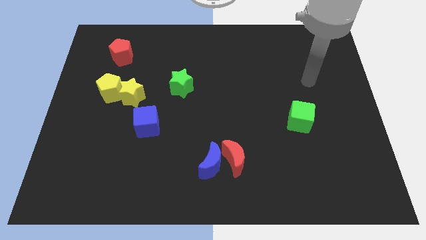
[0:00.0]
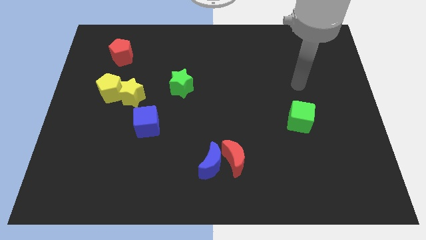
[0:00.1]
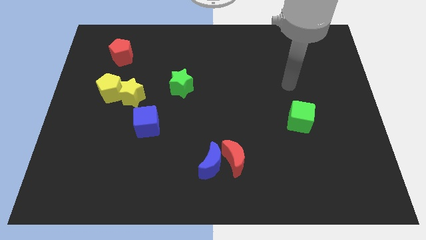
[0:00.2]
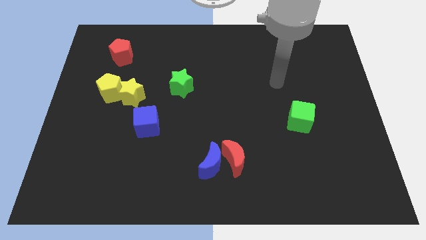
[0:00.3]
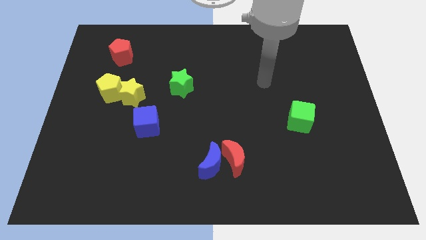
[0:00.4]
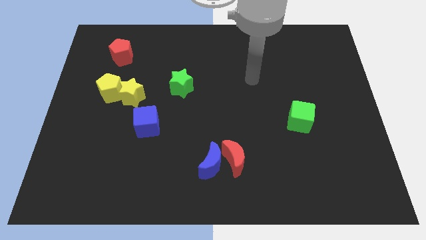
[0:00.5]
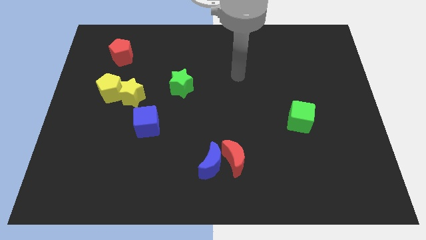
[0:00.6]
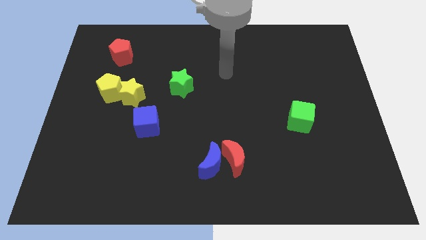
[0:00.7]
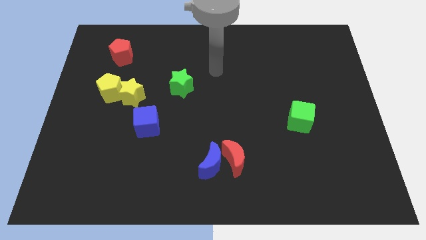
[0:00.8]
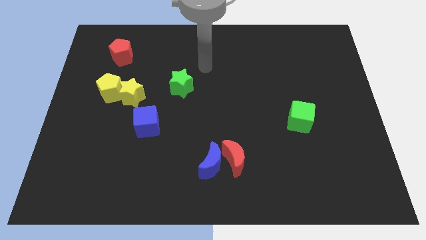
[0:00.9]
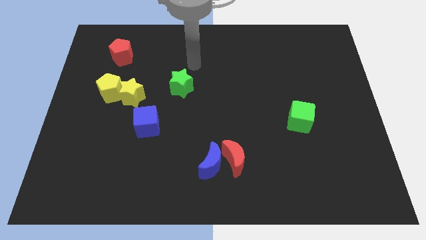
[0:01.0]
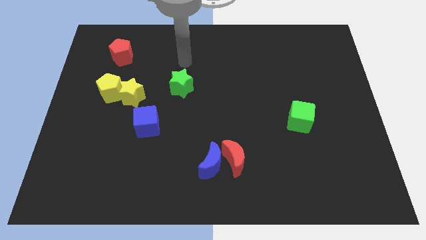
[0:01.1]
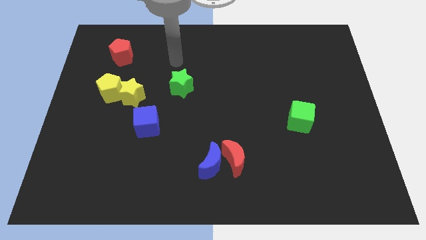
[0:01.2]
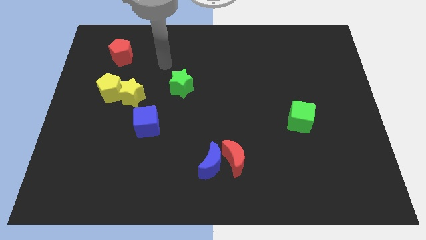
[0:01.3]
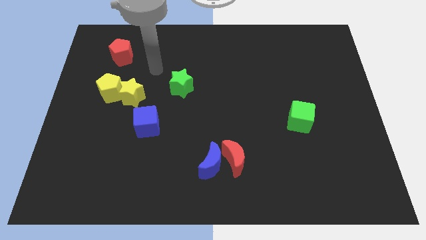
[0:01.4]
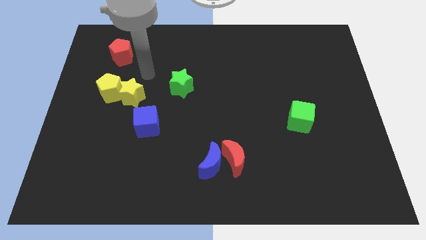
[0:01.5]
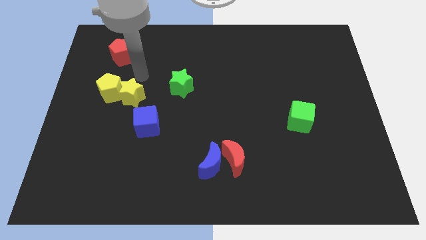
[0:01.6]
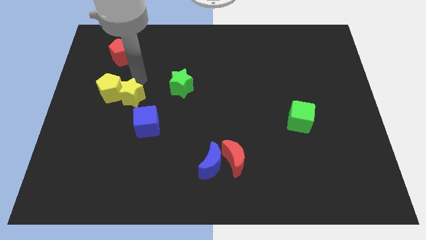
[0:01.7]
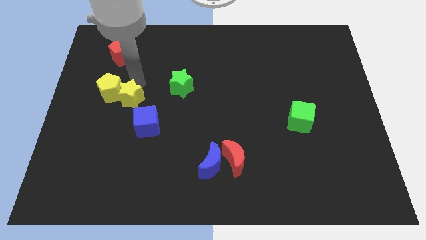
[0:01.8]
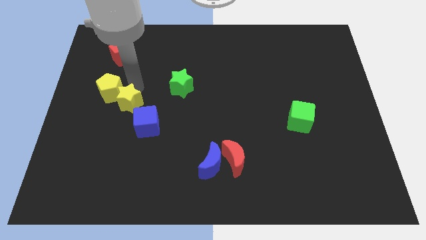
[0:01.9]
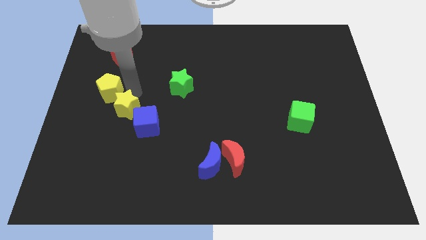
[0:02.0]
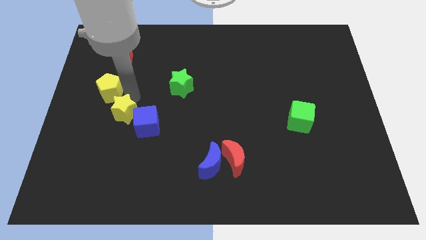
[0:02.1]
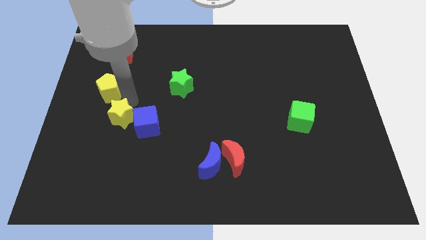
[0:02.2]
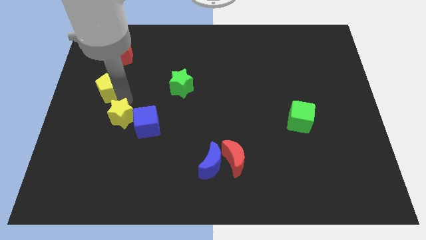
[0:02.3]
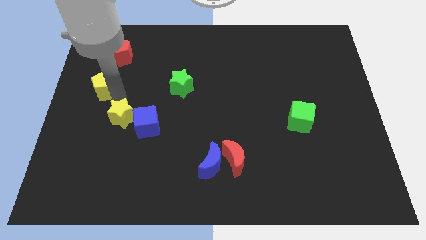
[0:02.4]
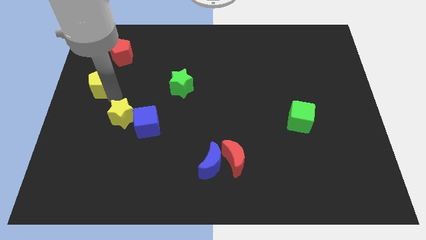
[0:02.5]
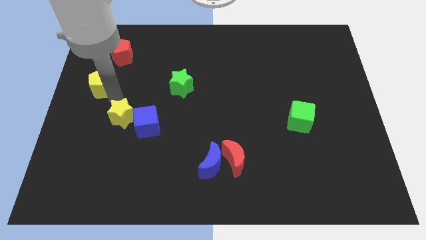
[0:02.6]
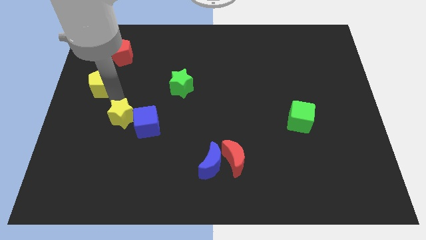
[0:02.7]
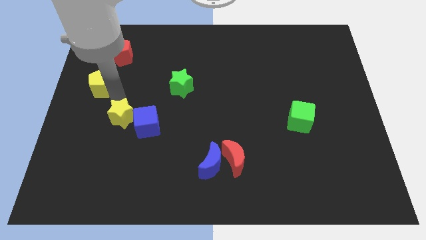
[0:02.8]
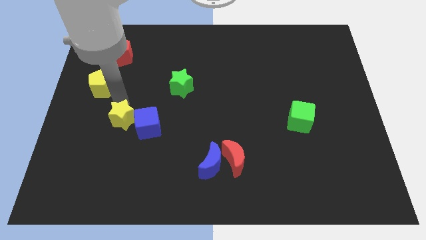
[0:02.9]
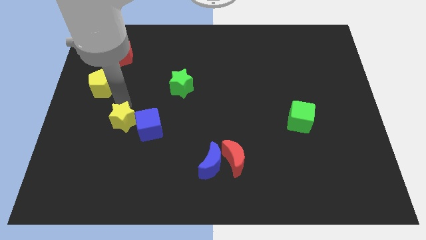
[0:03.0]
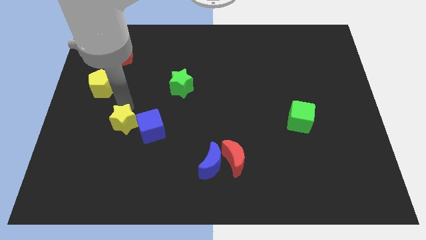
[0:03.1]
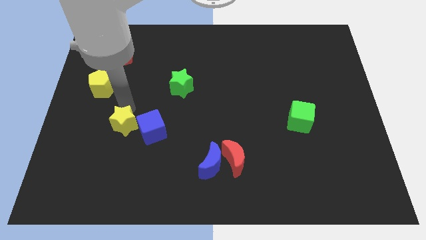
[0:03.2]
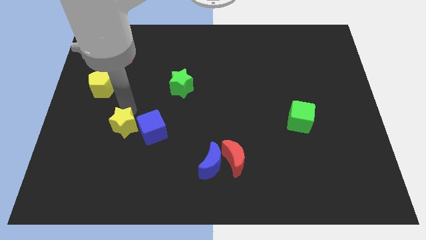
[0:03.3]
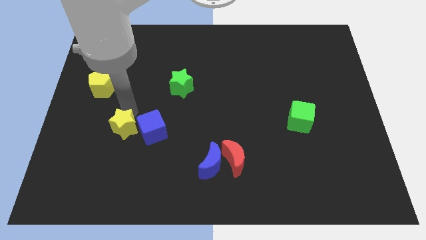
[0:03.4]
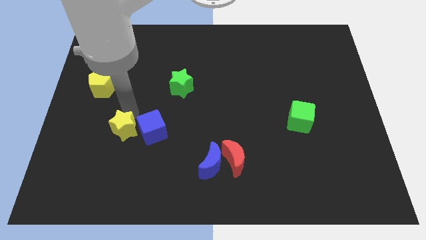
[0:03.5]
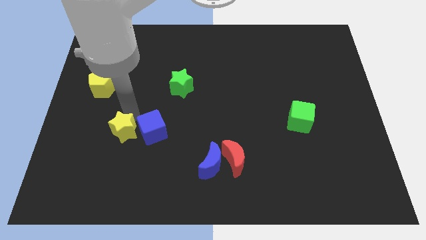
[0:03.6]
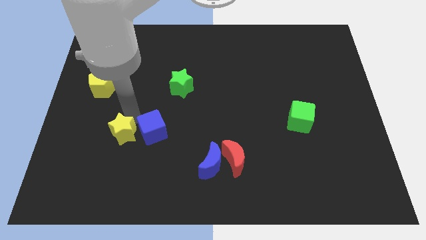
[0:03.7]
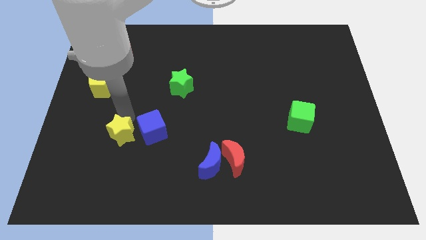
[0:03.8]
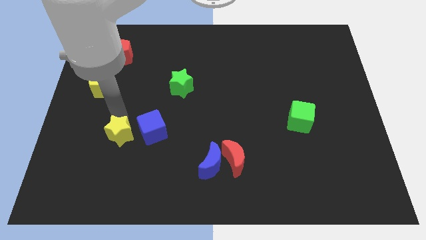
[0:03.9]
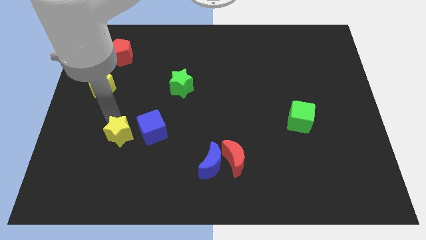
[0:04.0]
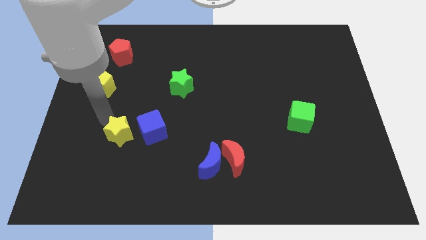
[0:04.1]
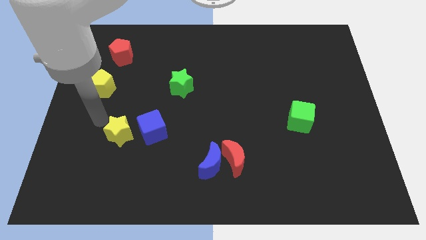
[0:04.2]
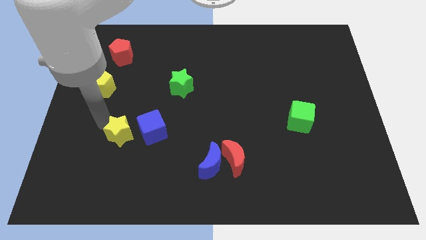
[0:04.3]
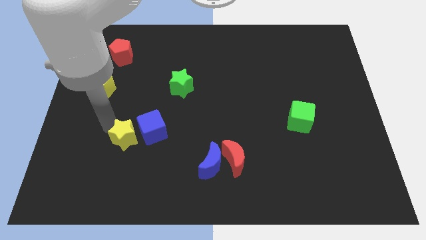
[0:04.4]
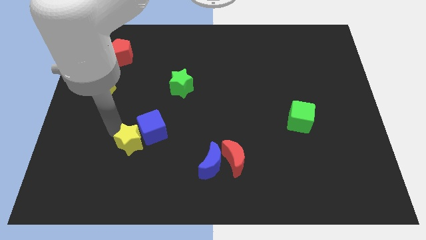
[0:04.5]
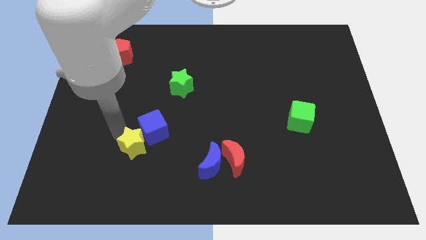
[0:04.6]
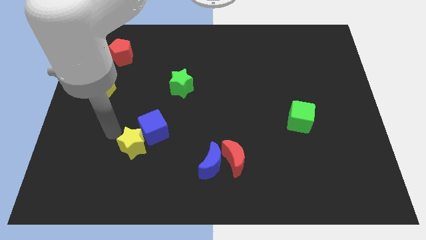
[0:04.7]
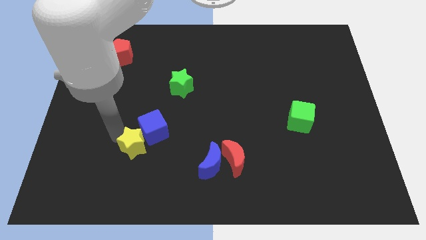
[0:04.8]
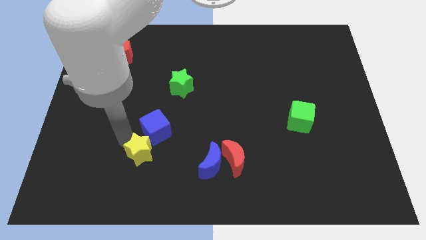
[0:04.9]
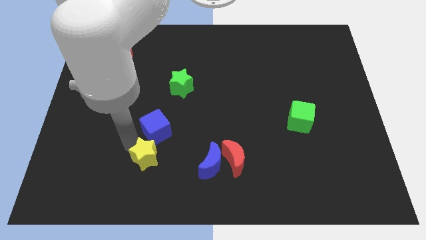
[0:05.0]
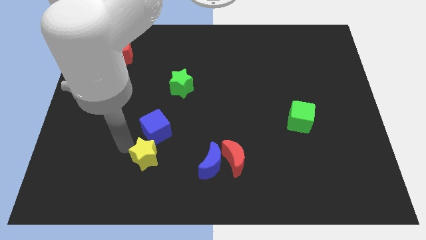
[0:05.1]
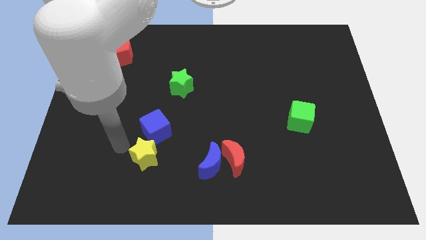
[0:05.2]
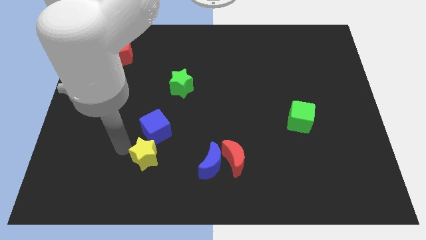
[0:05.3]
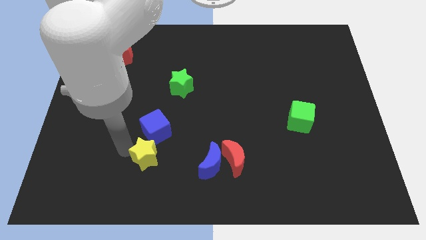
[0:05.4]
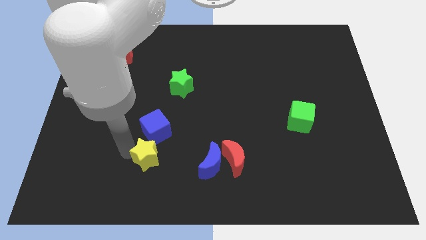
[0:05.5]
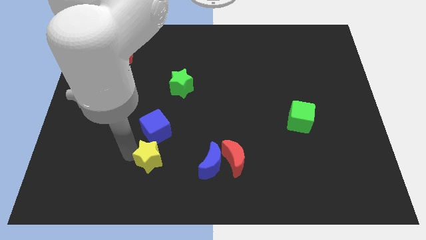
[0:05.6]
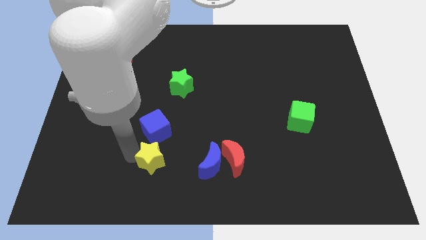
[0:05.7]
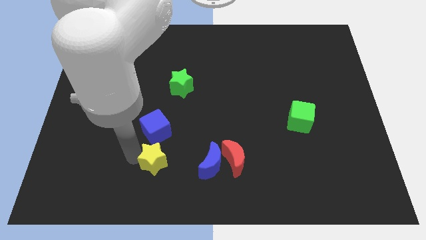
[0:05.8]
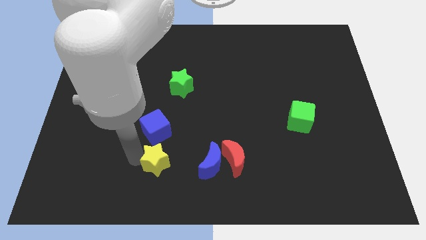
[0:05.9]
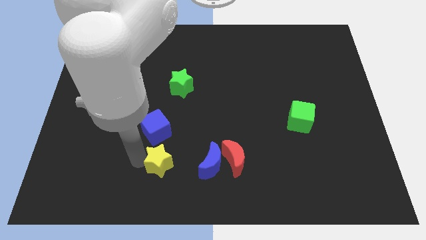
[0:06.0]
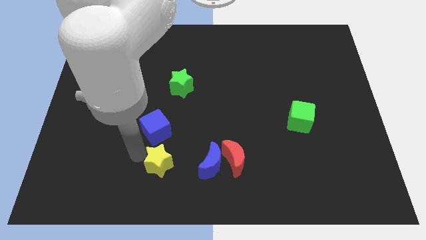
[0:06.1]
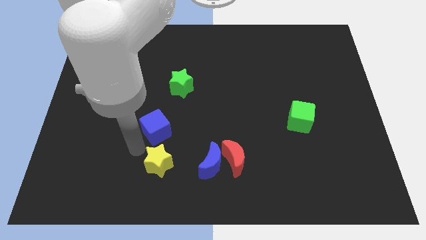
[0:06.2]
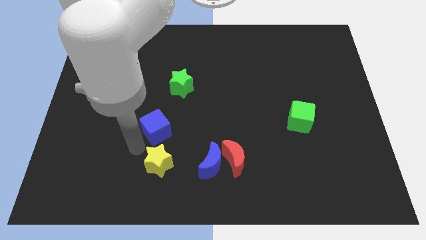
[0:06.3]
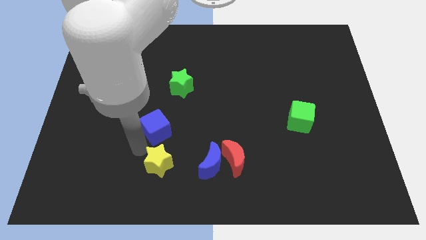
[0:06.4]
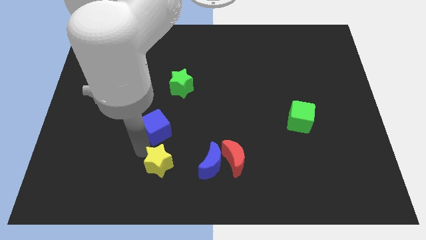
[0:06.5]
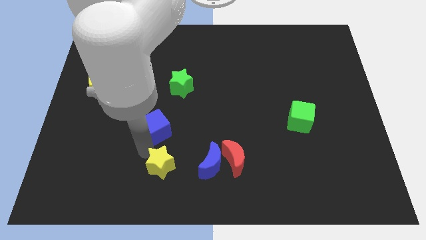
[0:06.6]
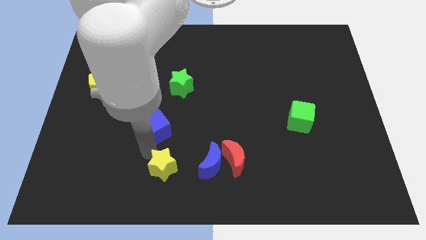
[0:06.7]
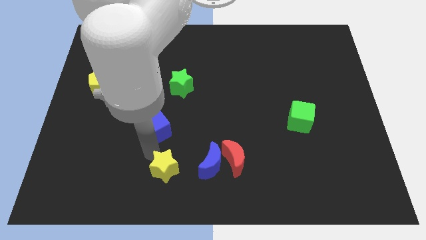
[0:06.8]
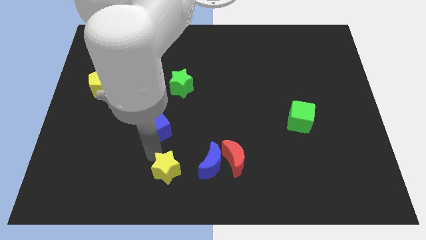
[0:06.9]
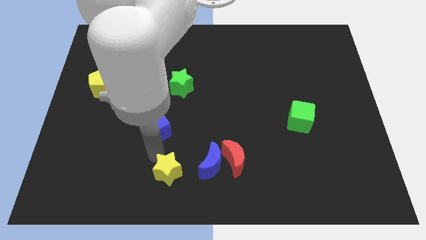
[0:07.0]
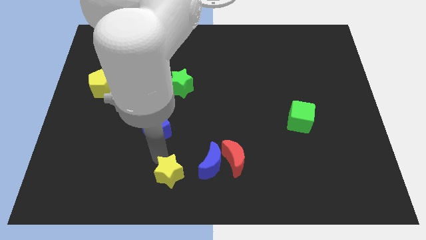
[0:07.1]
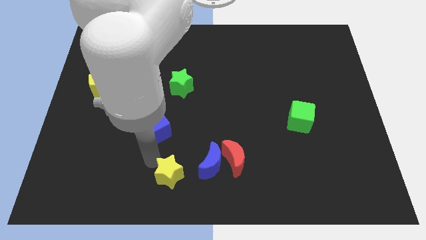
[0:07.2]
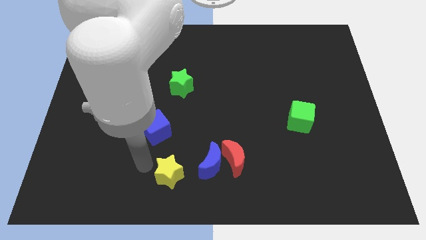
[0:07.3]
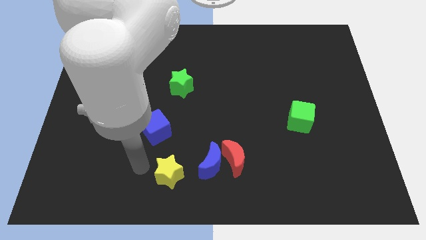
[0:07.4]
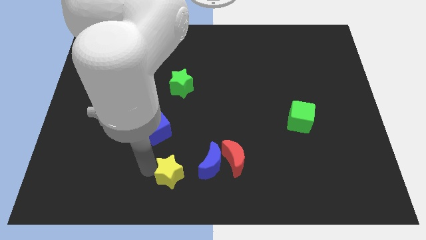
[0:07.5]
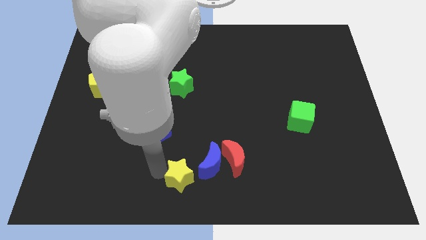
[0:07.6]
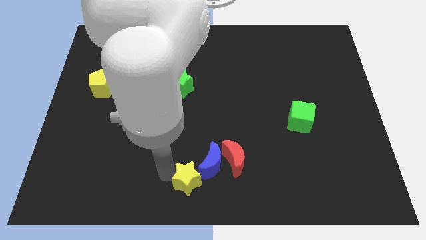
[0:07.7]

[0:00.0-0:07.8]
put the yellow star diagonally down and to the left of the red moon
